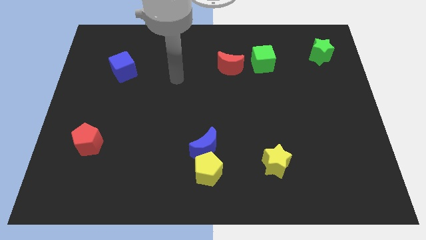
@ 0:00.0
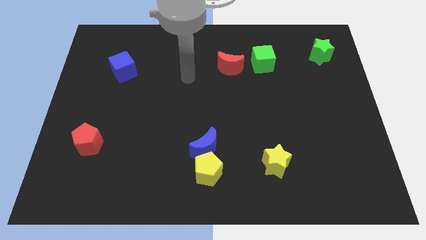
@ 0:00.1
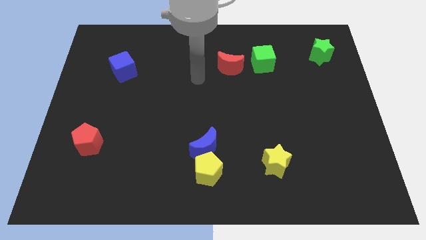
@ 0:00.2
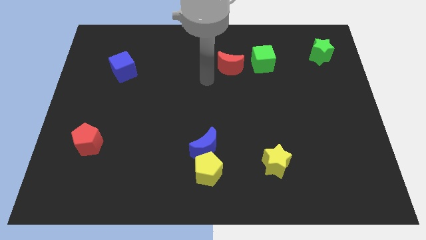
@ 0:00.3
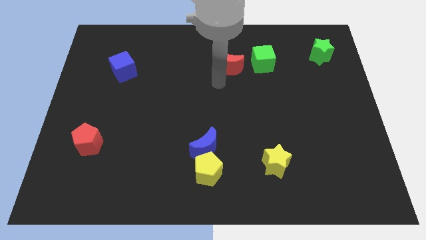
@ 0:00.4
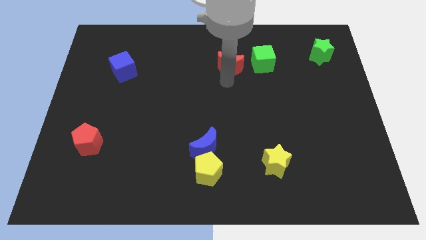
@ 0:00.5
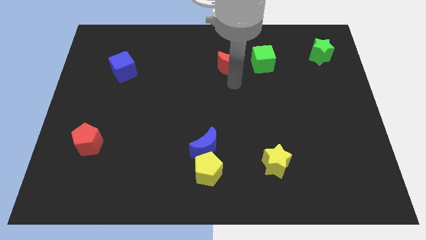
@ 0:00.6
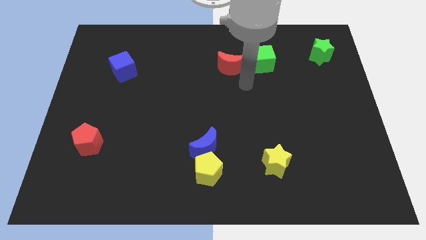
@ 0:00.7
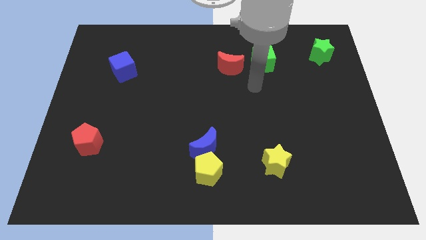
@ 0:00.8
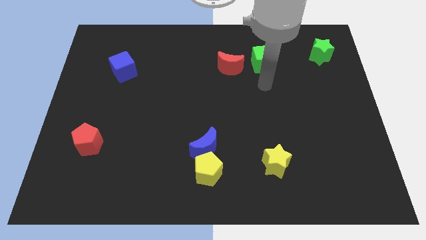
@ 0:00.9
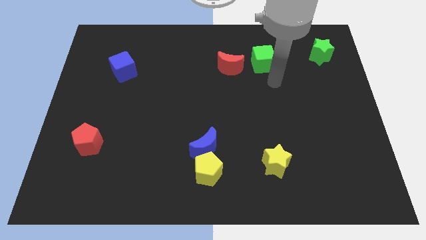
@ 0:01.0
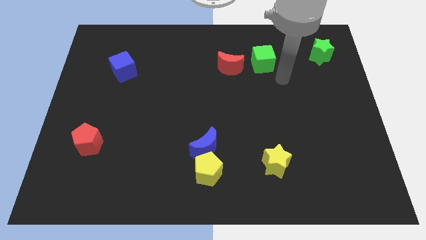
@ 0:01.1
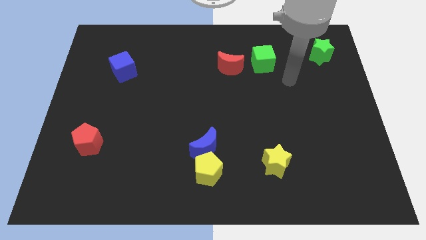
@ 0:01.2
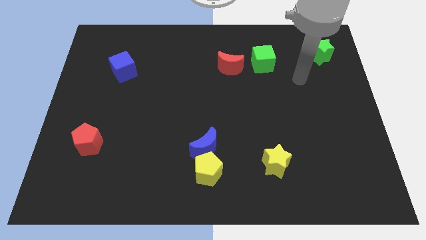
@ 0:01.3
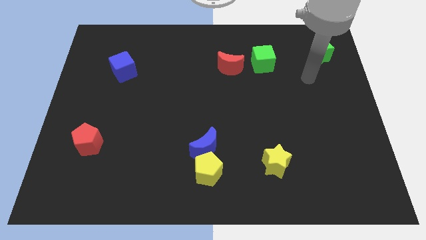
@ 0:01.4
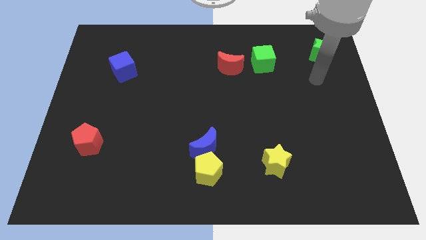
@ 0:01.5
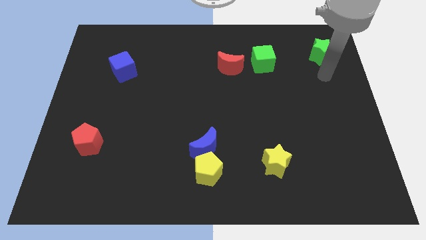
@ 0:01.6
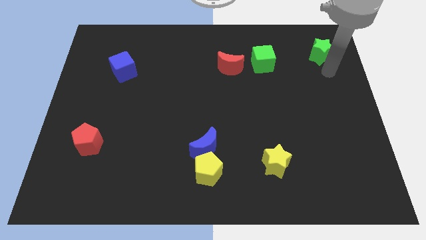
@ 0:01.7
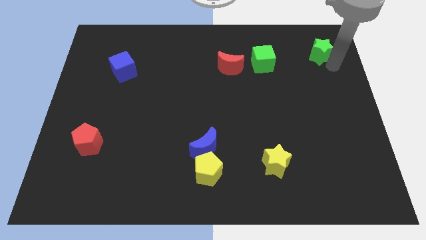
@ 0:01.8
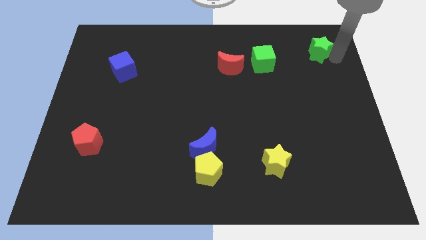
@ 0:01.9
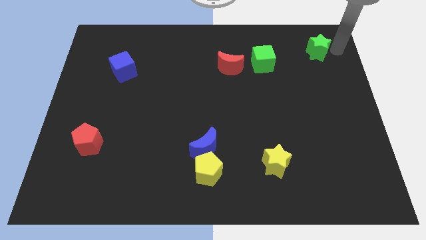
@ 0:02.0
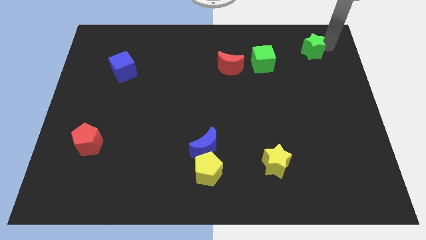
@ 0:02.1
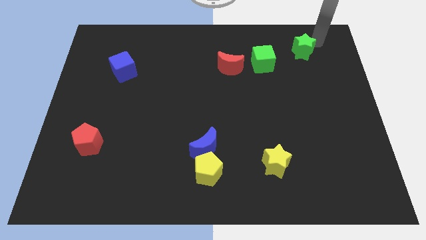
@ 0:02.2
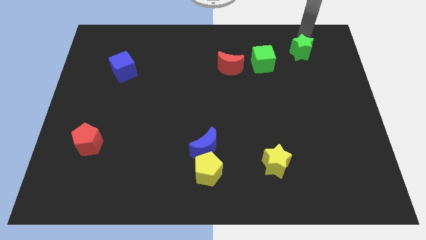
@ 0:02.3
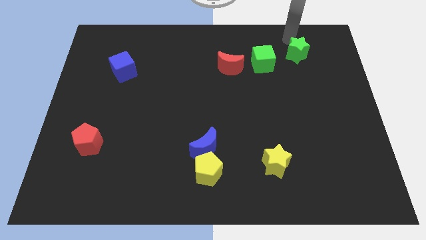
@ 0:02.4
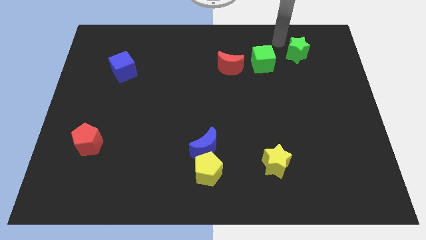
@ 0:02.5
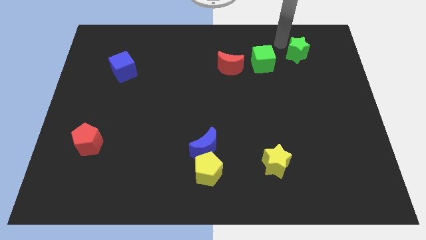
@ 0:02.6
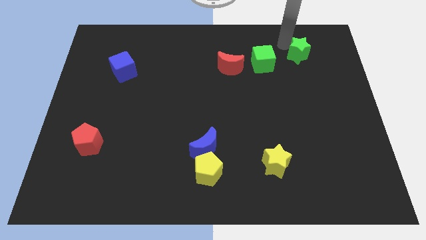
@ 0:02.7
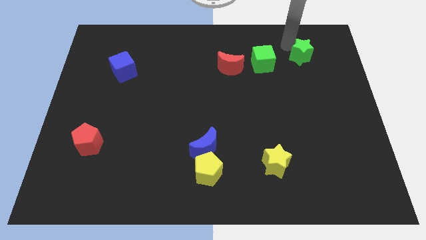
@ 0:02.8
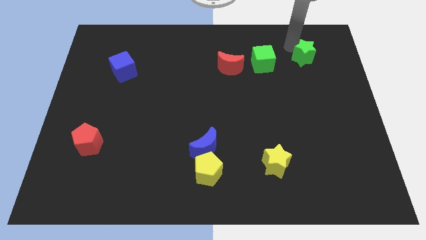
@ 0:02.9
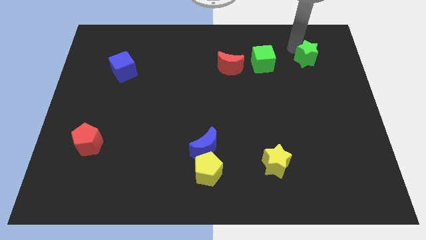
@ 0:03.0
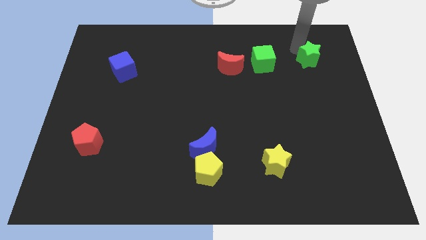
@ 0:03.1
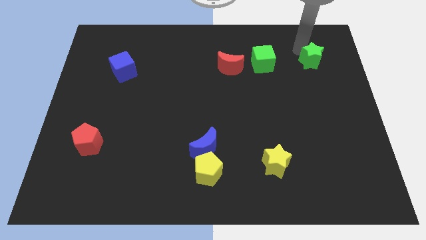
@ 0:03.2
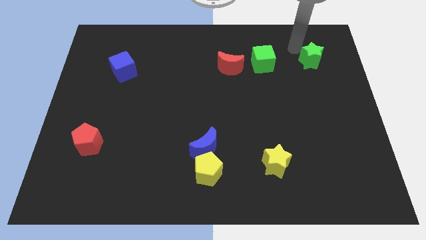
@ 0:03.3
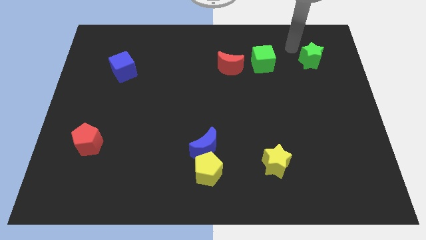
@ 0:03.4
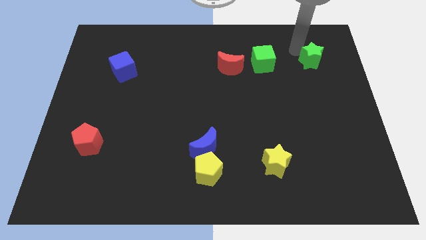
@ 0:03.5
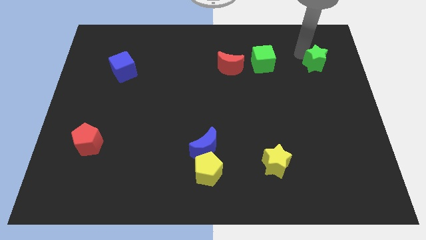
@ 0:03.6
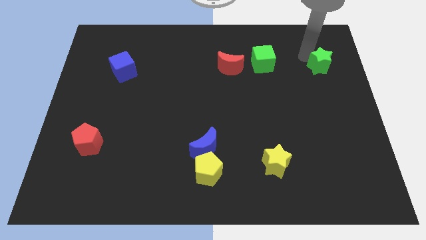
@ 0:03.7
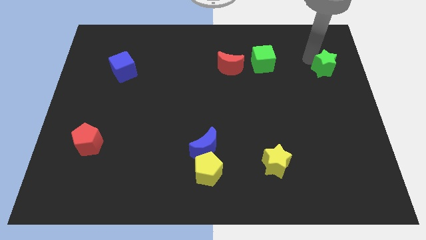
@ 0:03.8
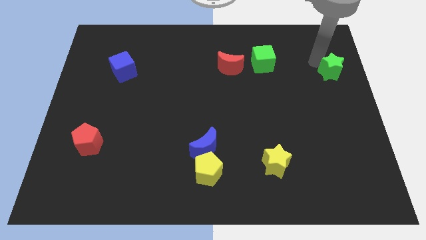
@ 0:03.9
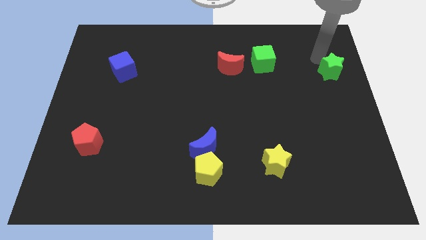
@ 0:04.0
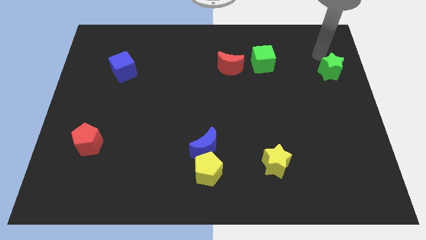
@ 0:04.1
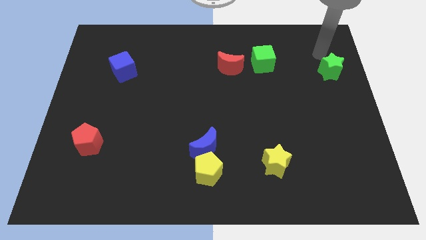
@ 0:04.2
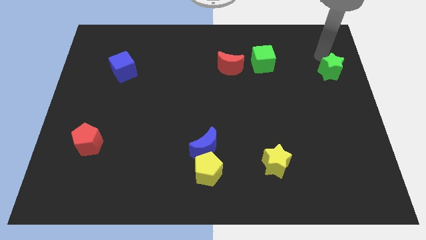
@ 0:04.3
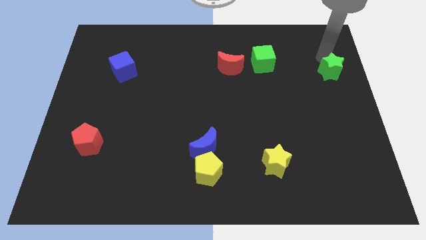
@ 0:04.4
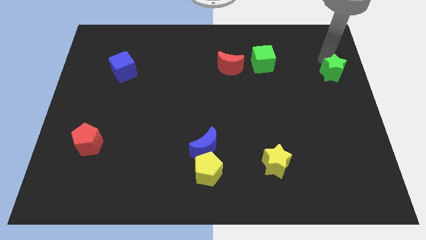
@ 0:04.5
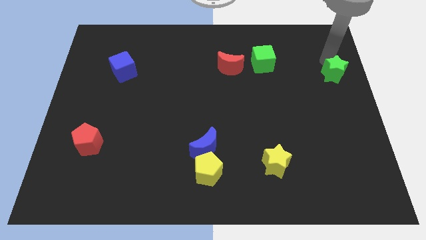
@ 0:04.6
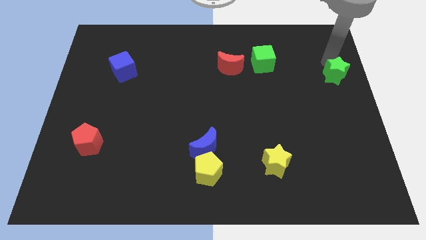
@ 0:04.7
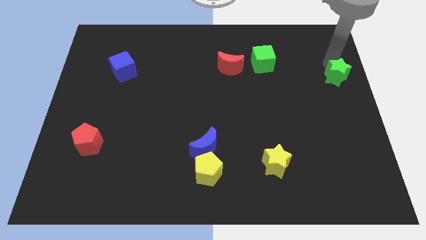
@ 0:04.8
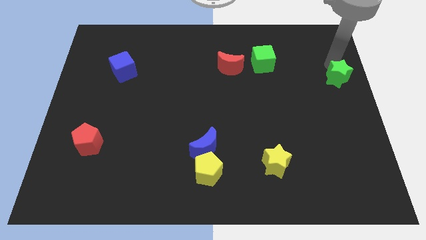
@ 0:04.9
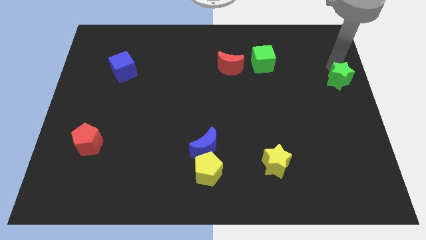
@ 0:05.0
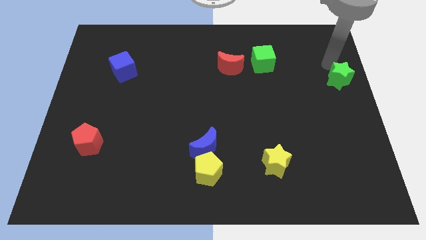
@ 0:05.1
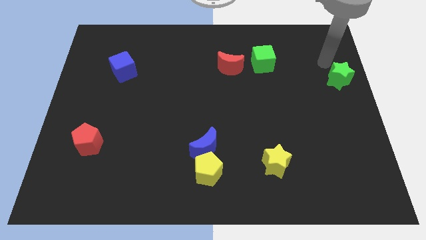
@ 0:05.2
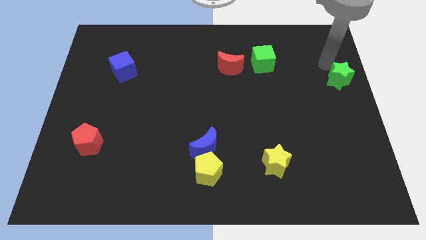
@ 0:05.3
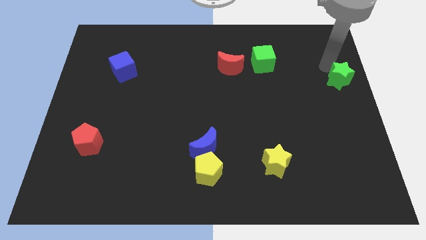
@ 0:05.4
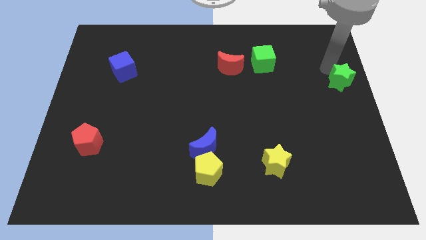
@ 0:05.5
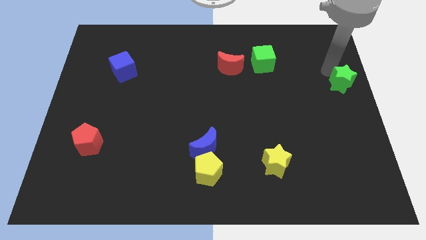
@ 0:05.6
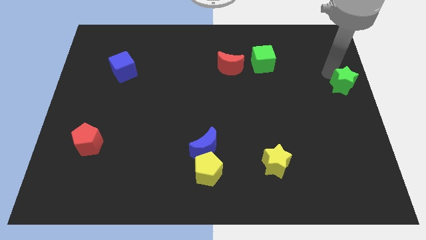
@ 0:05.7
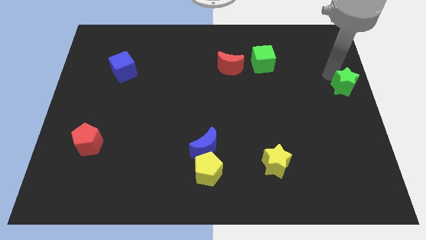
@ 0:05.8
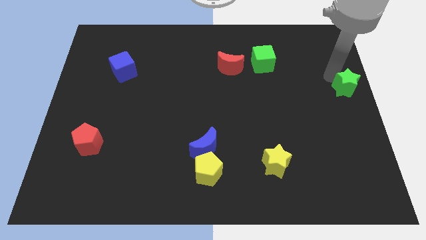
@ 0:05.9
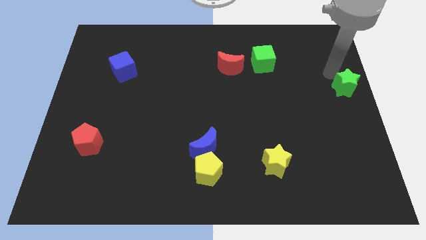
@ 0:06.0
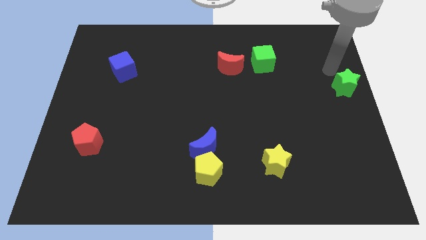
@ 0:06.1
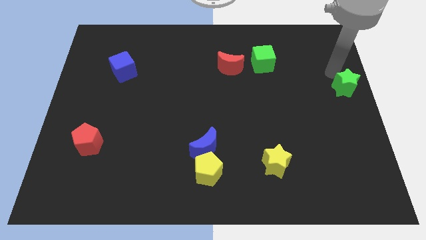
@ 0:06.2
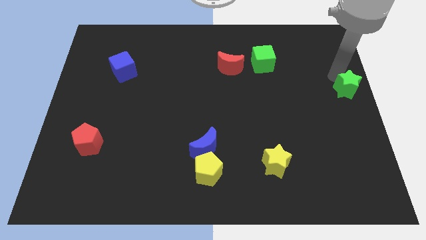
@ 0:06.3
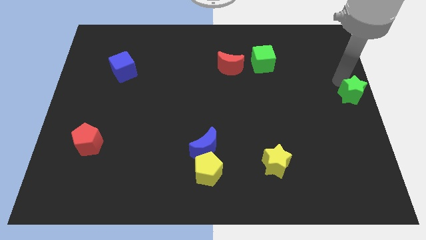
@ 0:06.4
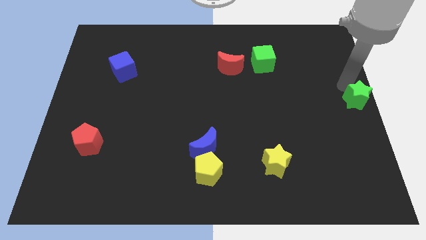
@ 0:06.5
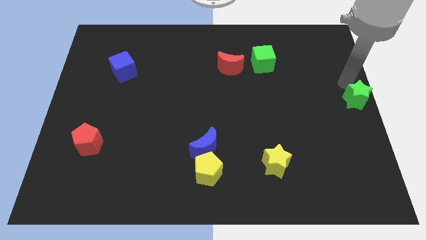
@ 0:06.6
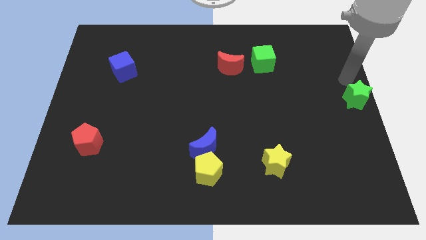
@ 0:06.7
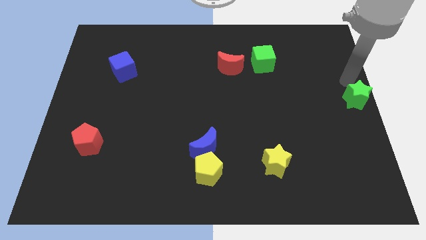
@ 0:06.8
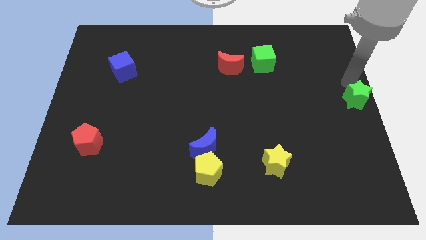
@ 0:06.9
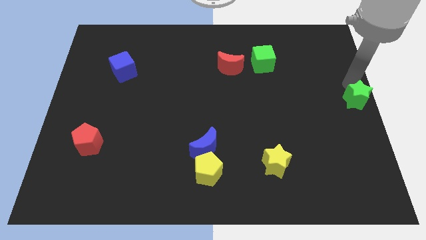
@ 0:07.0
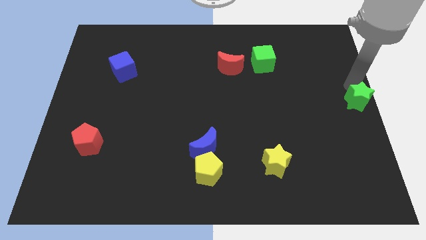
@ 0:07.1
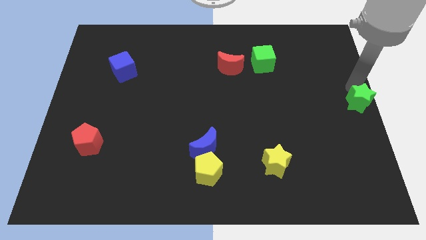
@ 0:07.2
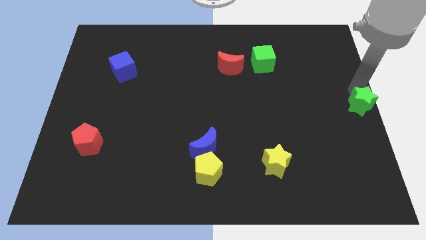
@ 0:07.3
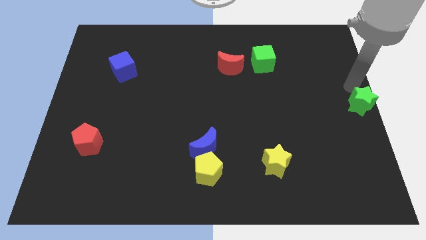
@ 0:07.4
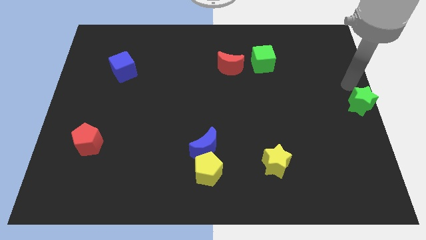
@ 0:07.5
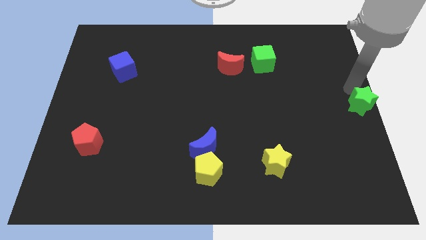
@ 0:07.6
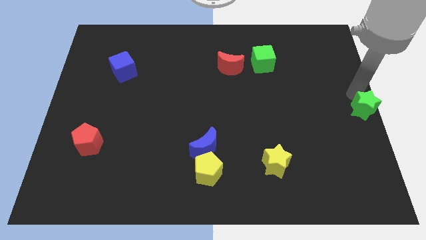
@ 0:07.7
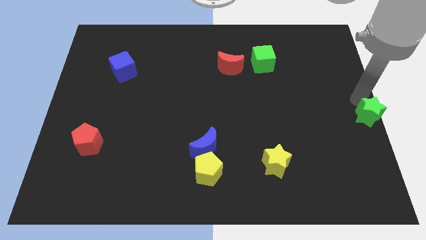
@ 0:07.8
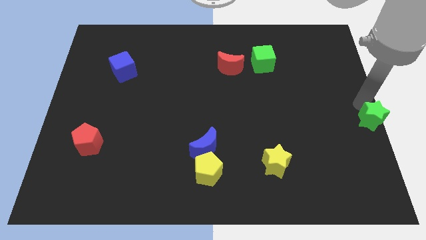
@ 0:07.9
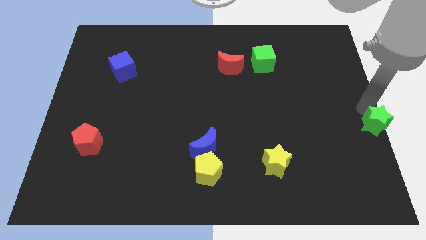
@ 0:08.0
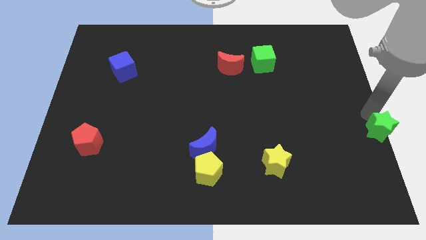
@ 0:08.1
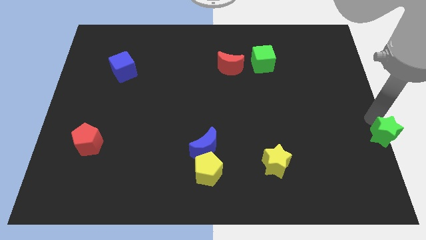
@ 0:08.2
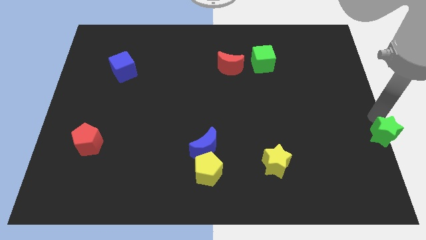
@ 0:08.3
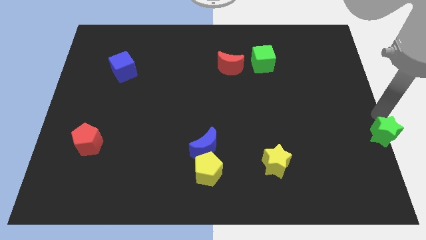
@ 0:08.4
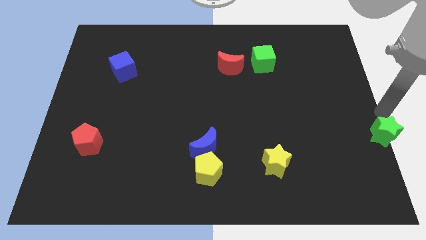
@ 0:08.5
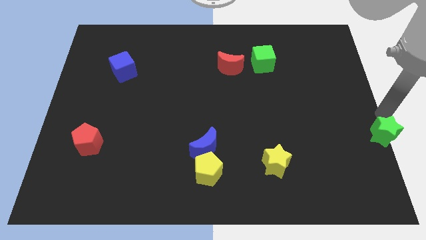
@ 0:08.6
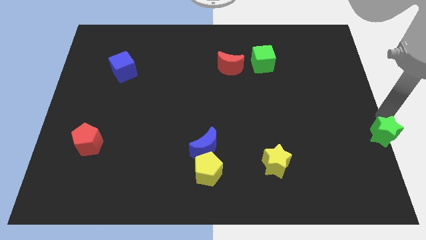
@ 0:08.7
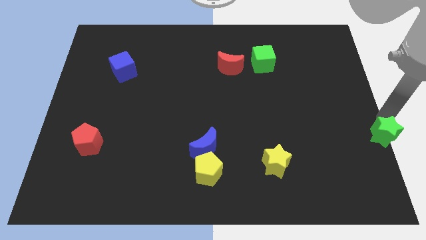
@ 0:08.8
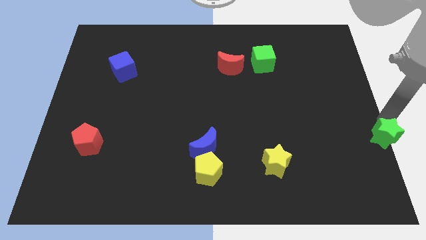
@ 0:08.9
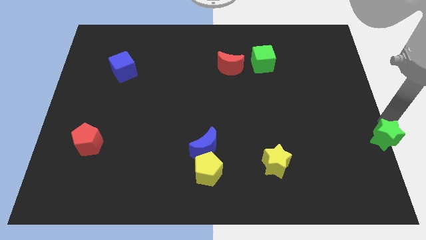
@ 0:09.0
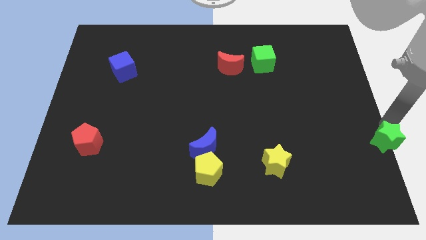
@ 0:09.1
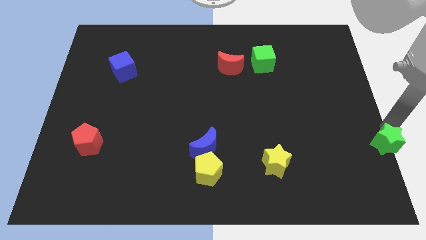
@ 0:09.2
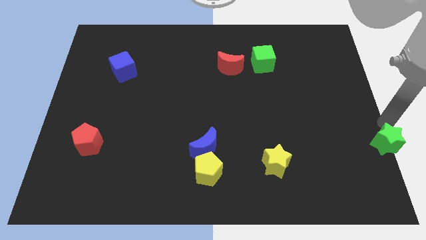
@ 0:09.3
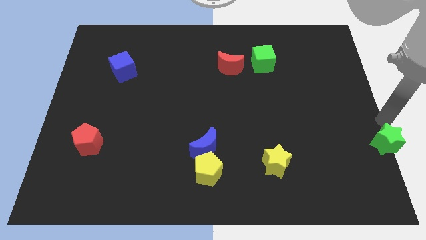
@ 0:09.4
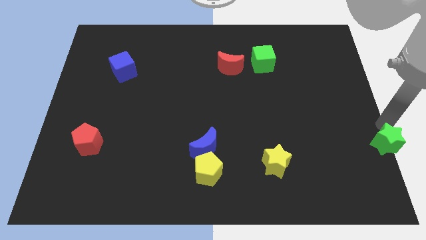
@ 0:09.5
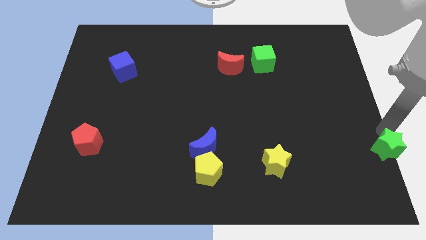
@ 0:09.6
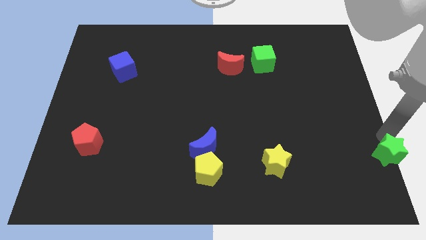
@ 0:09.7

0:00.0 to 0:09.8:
put the green star to the bottom right
